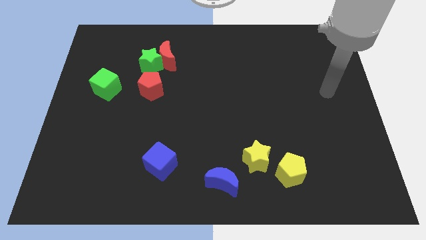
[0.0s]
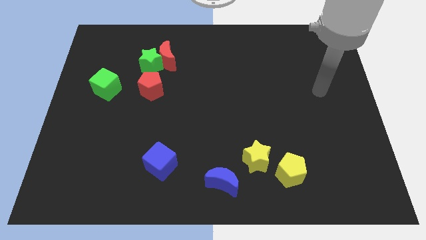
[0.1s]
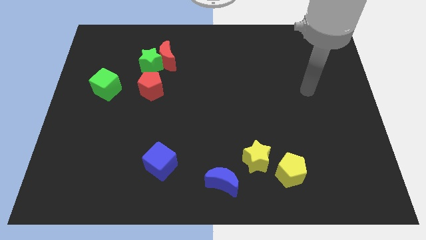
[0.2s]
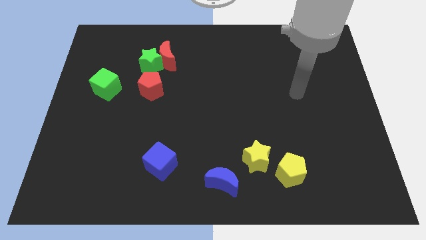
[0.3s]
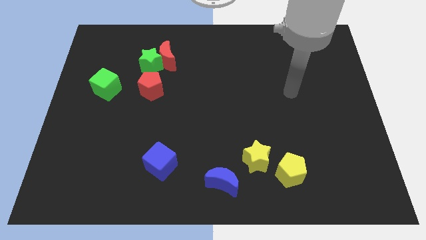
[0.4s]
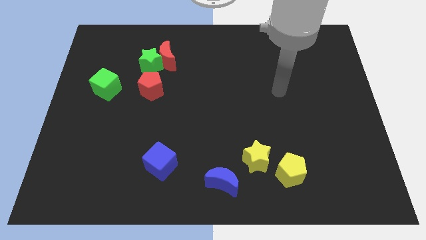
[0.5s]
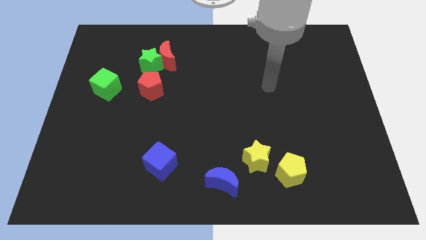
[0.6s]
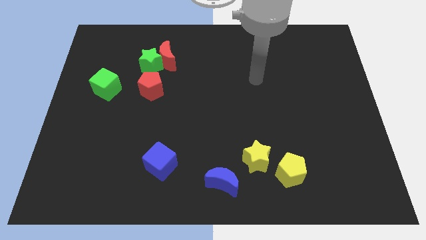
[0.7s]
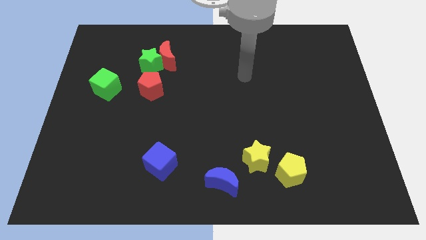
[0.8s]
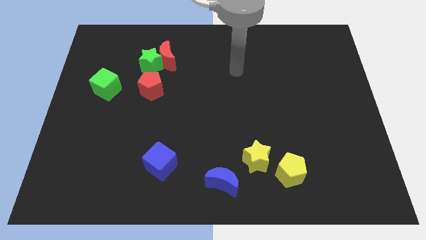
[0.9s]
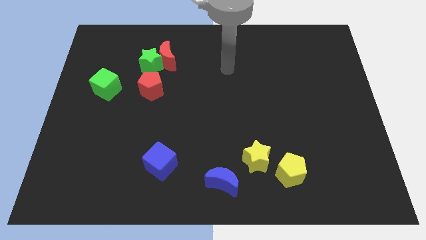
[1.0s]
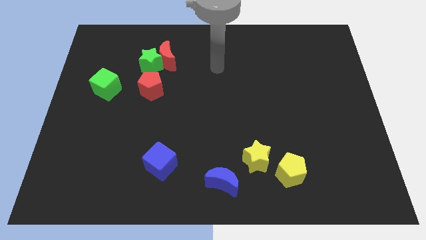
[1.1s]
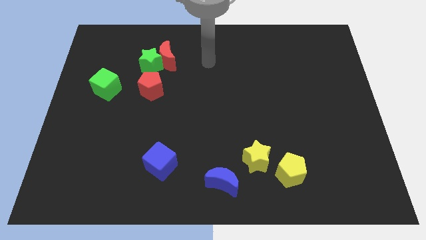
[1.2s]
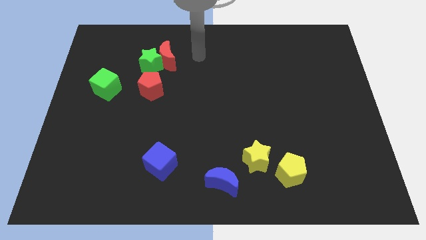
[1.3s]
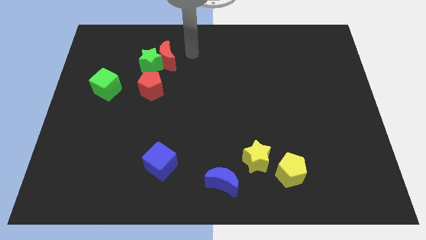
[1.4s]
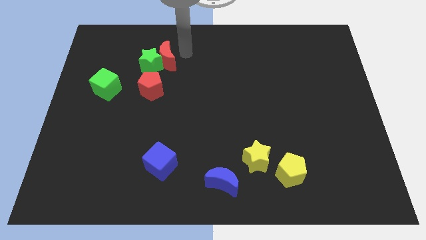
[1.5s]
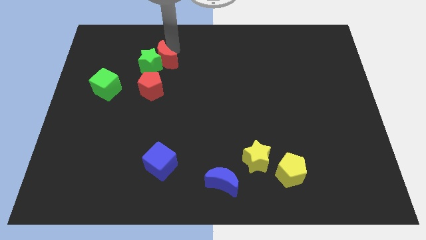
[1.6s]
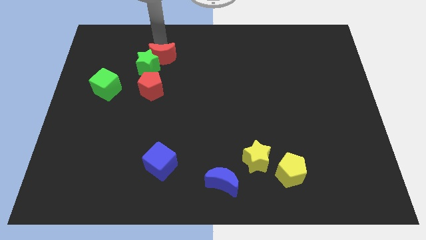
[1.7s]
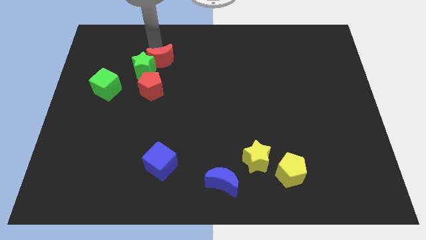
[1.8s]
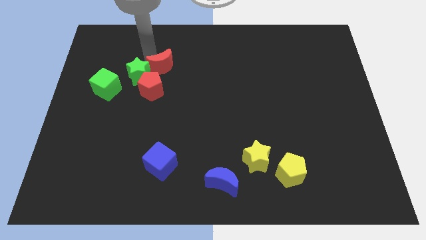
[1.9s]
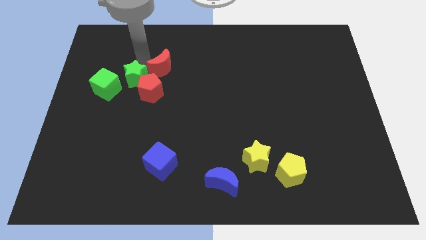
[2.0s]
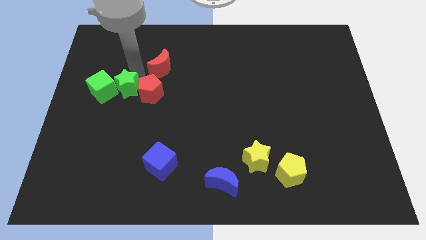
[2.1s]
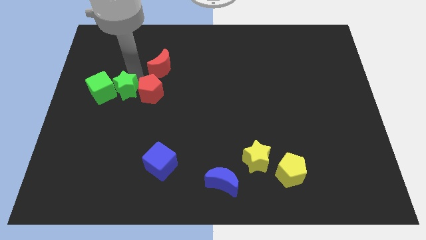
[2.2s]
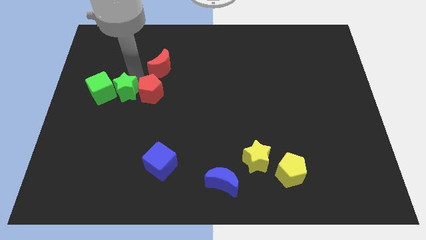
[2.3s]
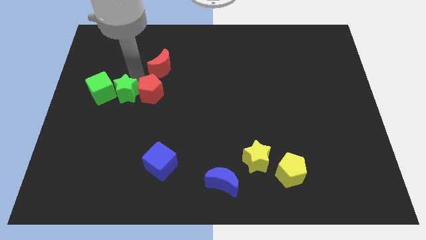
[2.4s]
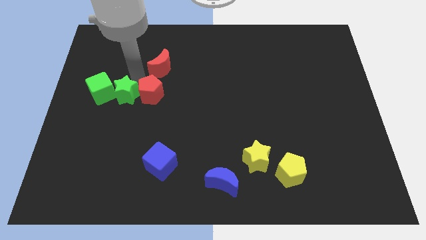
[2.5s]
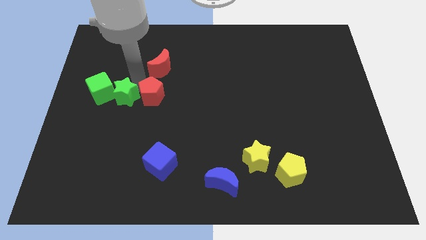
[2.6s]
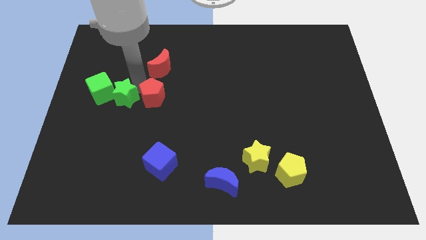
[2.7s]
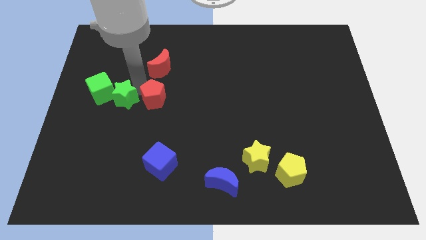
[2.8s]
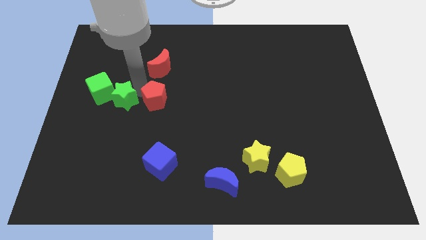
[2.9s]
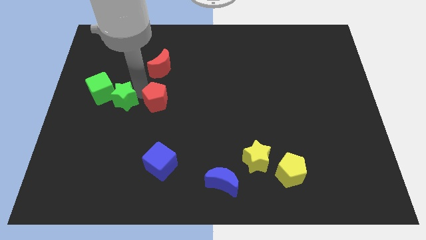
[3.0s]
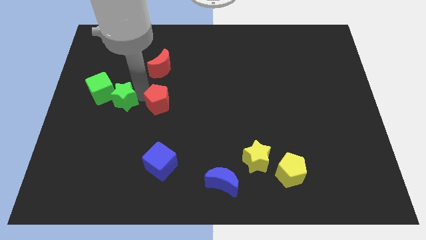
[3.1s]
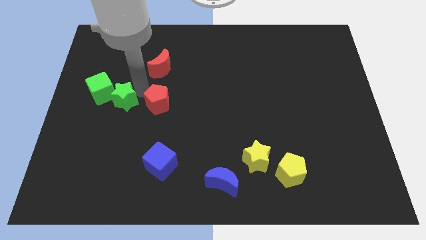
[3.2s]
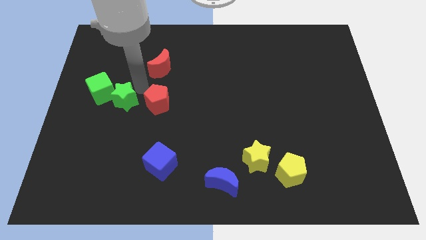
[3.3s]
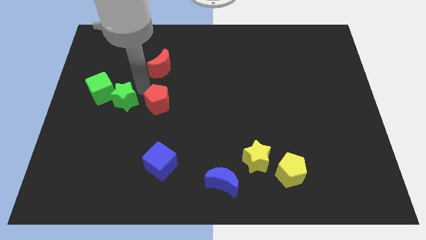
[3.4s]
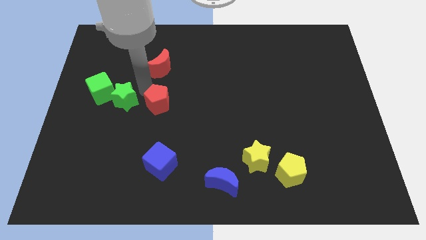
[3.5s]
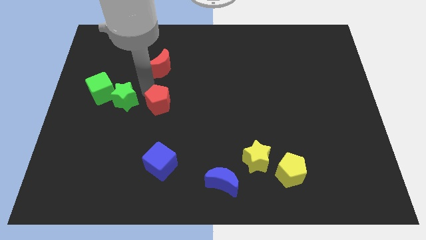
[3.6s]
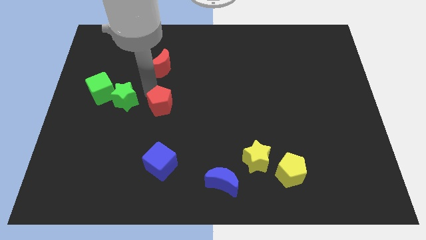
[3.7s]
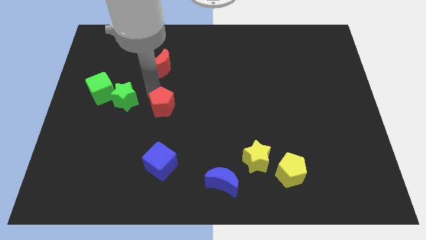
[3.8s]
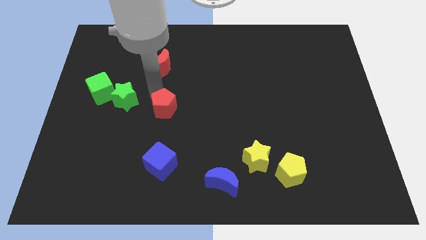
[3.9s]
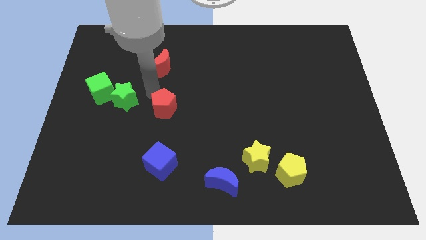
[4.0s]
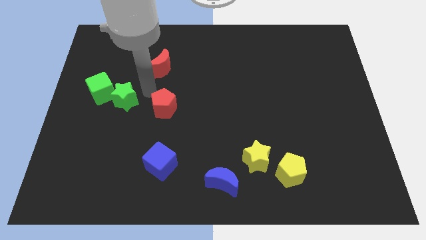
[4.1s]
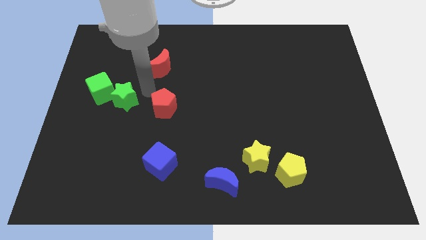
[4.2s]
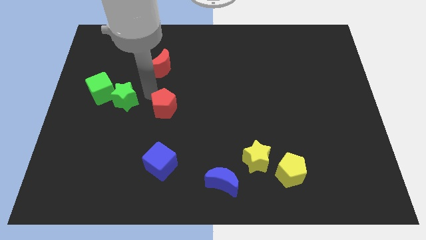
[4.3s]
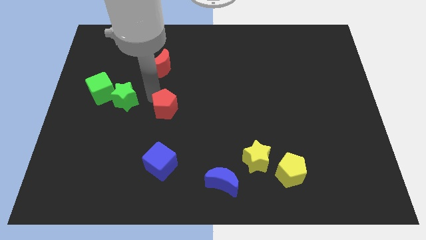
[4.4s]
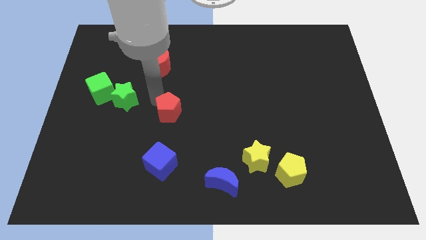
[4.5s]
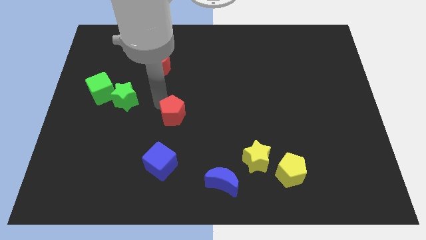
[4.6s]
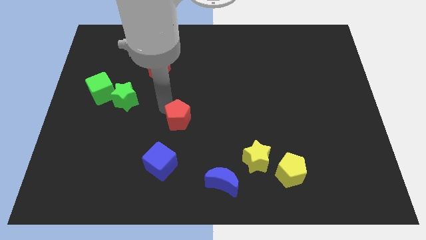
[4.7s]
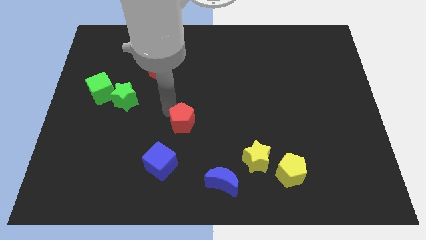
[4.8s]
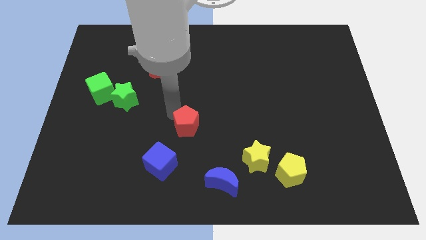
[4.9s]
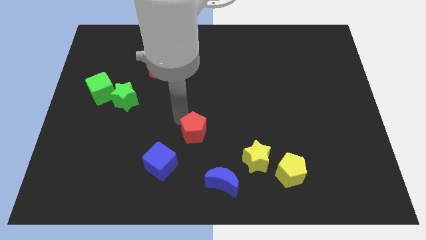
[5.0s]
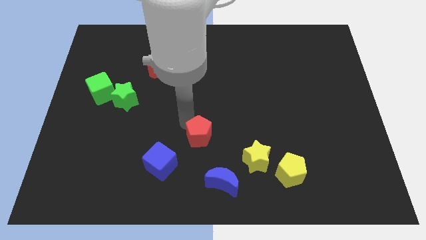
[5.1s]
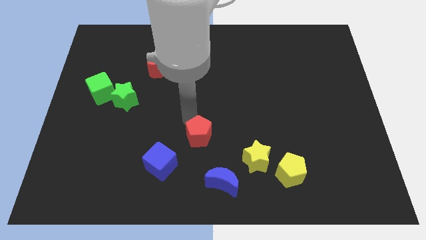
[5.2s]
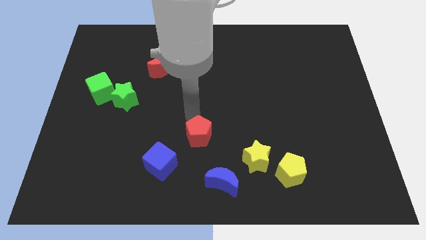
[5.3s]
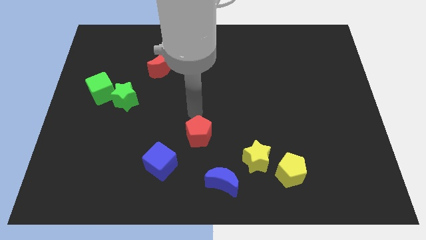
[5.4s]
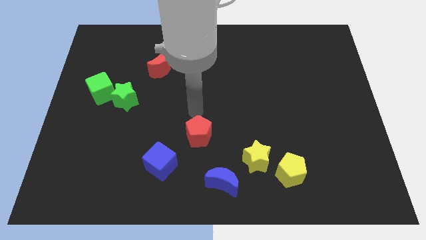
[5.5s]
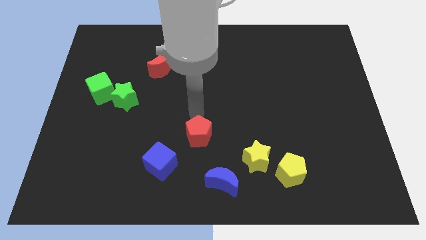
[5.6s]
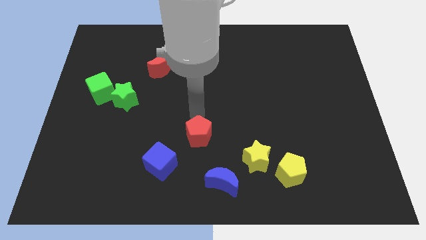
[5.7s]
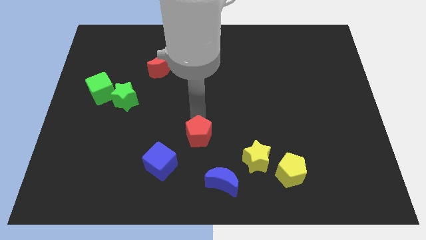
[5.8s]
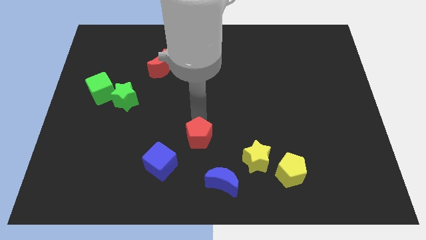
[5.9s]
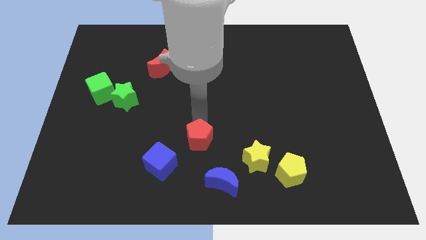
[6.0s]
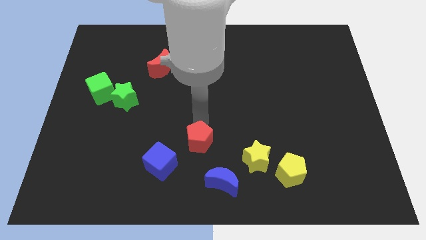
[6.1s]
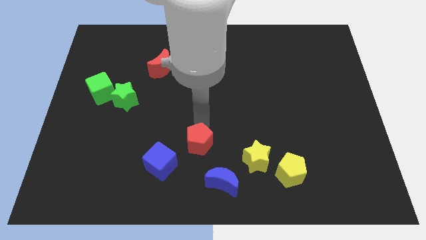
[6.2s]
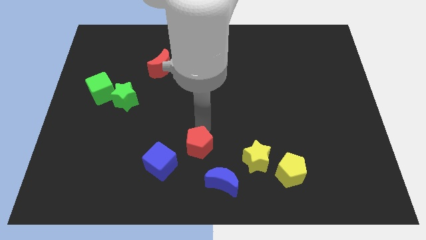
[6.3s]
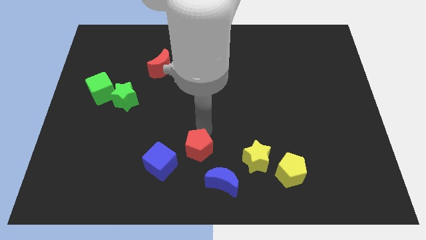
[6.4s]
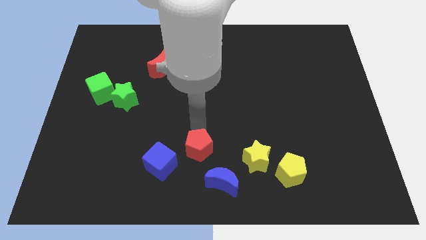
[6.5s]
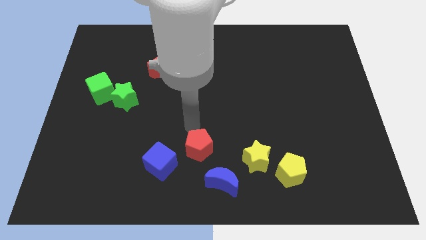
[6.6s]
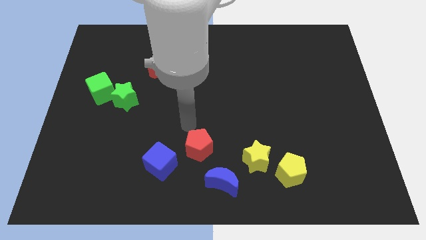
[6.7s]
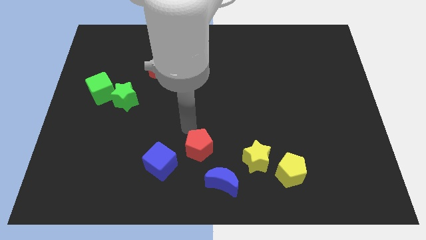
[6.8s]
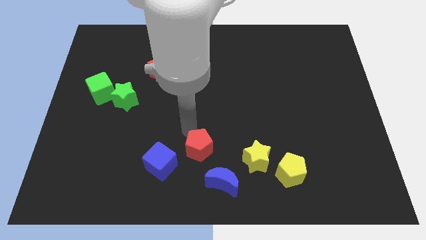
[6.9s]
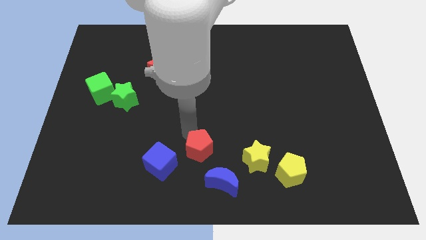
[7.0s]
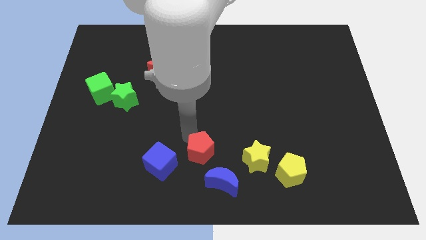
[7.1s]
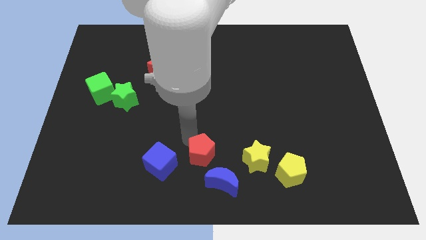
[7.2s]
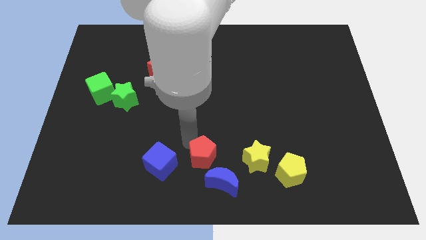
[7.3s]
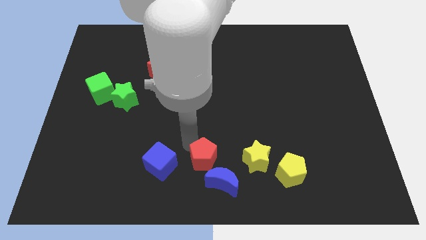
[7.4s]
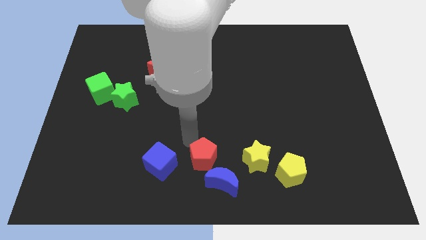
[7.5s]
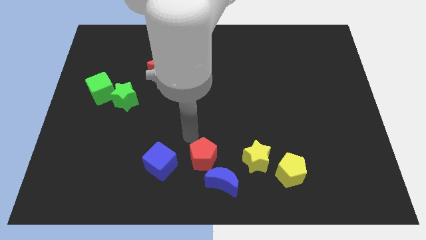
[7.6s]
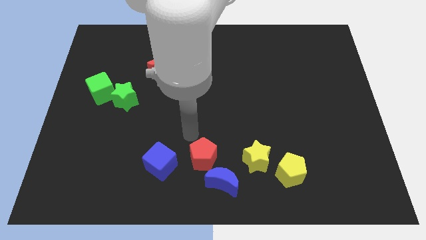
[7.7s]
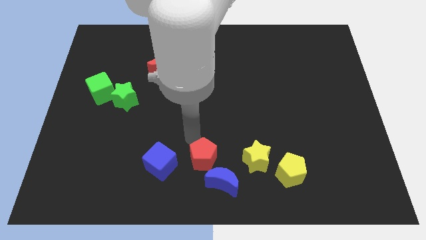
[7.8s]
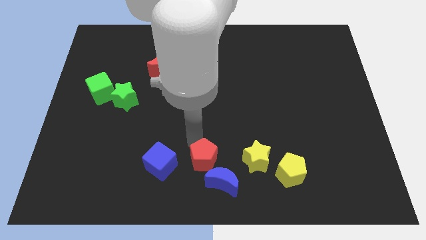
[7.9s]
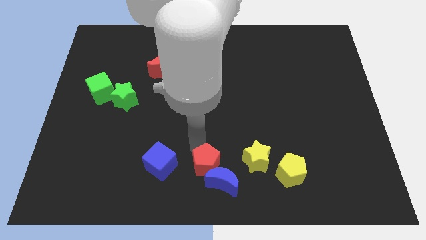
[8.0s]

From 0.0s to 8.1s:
put the red pentagon close to the blue moon
